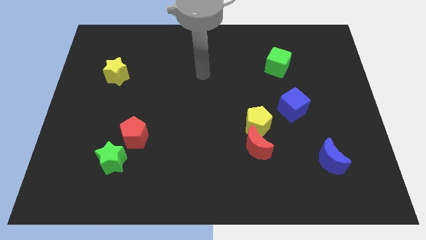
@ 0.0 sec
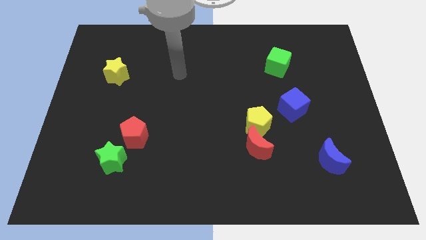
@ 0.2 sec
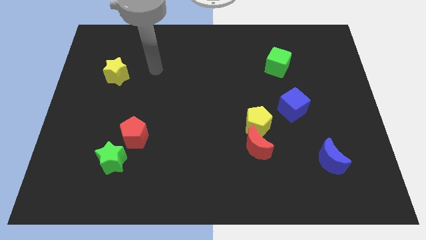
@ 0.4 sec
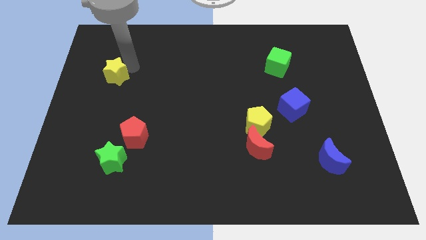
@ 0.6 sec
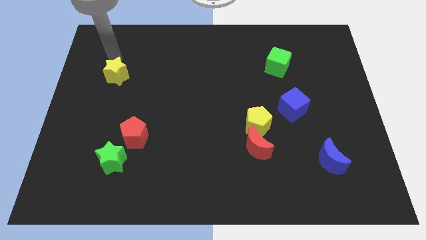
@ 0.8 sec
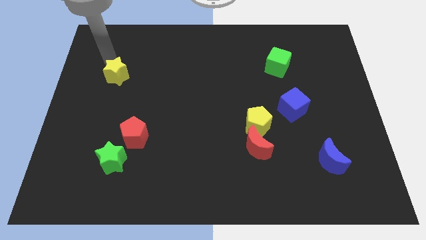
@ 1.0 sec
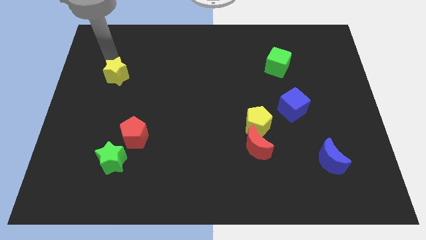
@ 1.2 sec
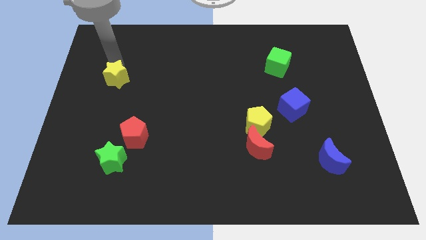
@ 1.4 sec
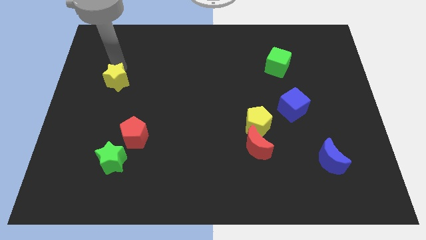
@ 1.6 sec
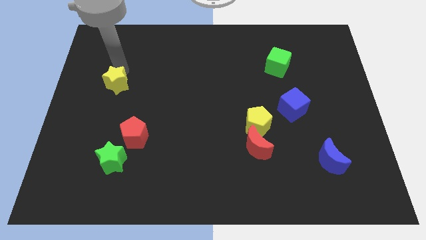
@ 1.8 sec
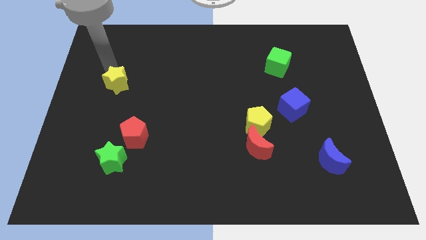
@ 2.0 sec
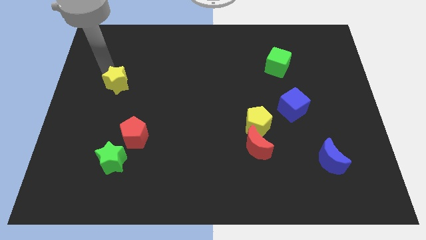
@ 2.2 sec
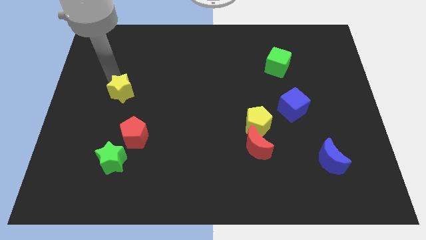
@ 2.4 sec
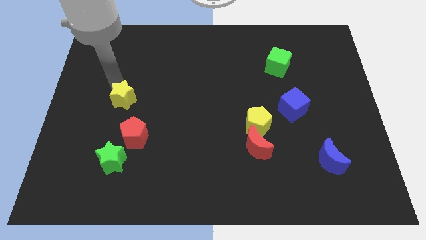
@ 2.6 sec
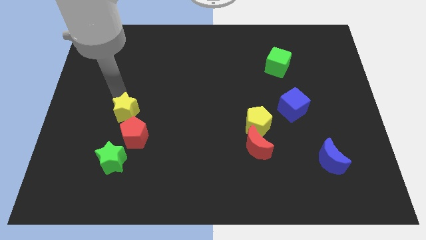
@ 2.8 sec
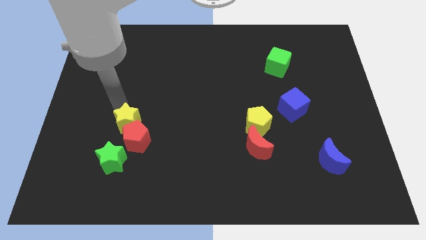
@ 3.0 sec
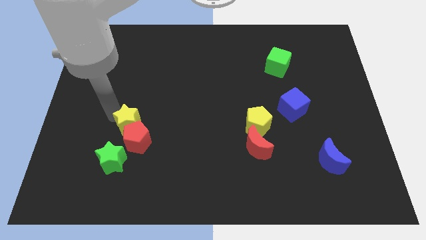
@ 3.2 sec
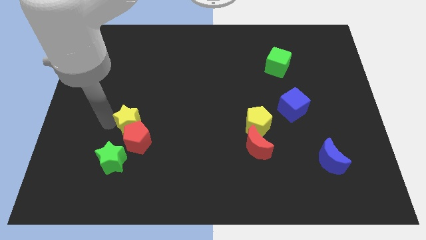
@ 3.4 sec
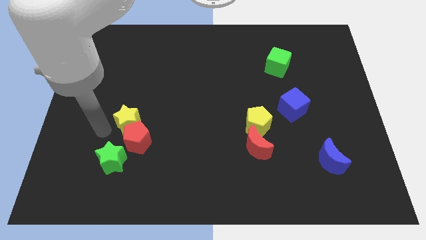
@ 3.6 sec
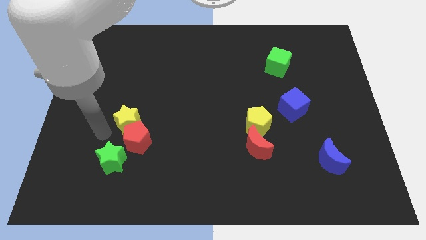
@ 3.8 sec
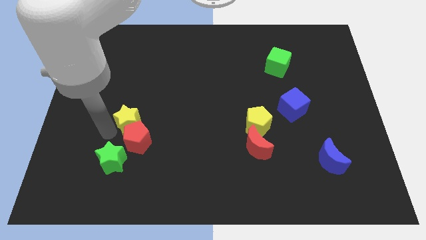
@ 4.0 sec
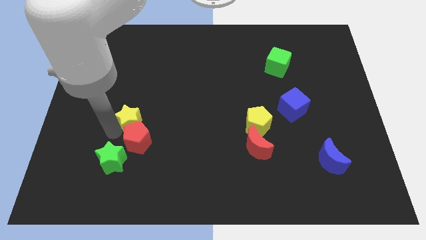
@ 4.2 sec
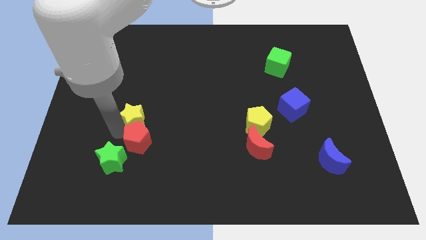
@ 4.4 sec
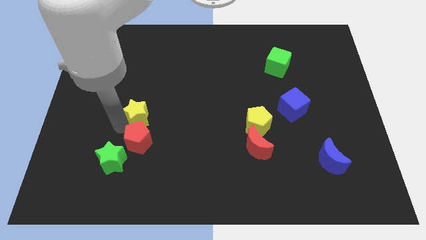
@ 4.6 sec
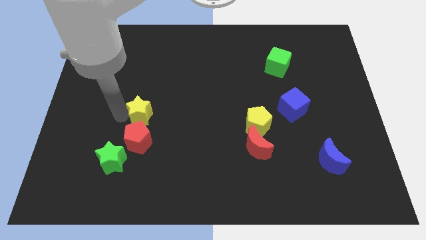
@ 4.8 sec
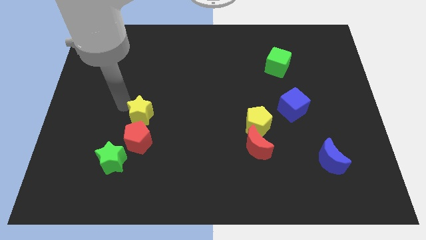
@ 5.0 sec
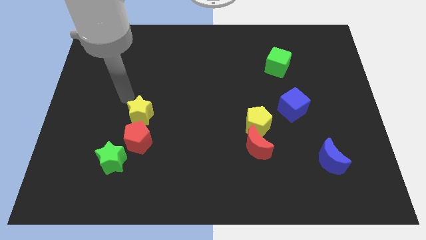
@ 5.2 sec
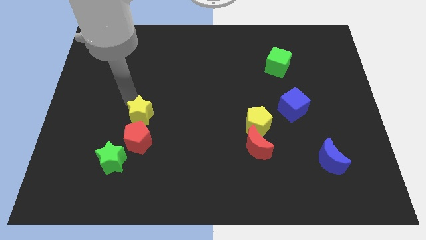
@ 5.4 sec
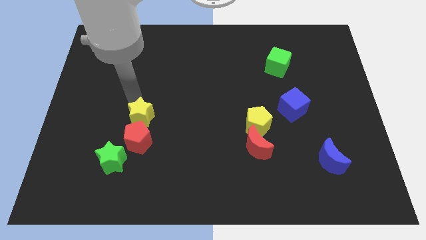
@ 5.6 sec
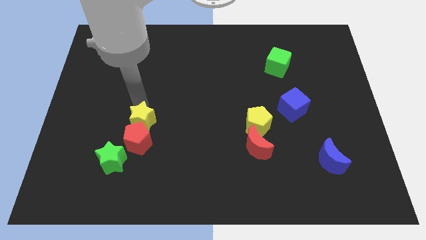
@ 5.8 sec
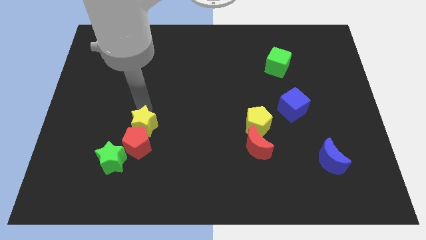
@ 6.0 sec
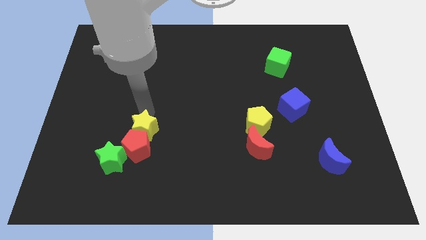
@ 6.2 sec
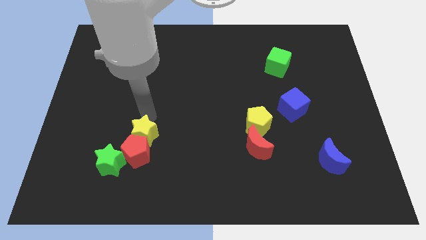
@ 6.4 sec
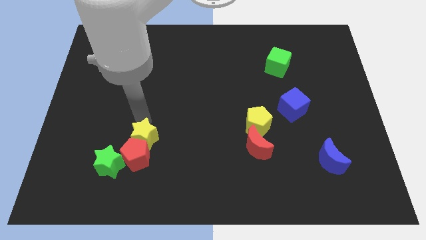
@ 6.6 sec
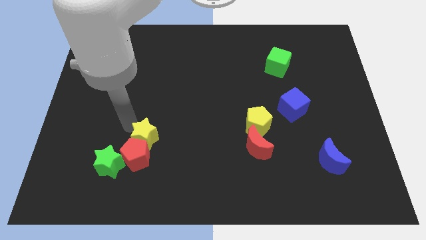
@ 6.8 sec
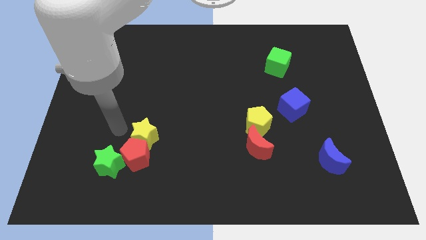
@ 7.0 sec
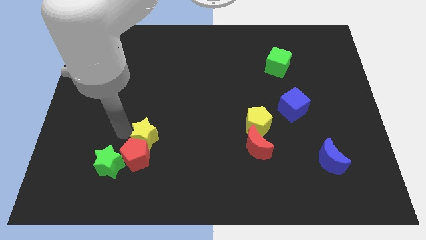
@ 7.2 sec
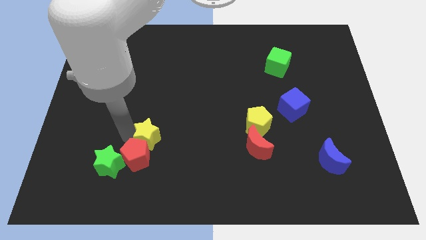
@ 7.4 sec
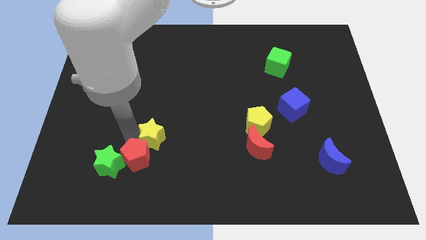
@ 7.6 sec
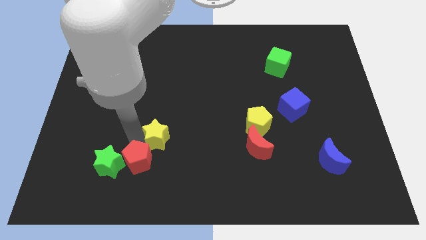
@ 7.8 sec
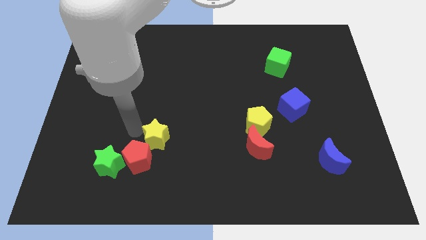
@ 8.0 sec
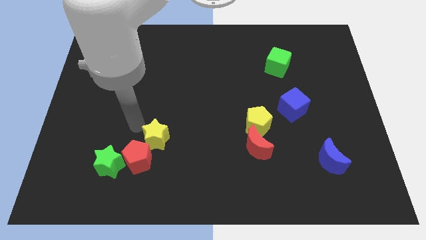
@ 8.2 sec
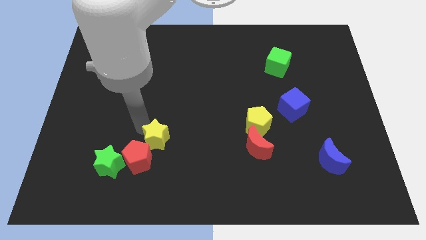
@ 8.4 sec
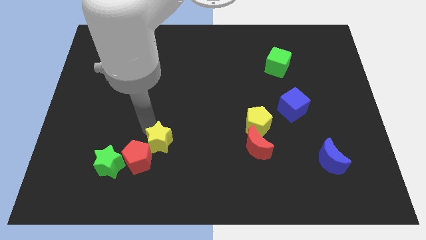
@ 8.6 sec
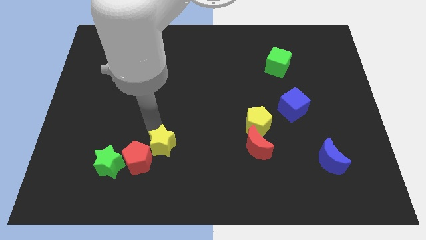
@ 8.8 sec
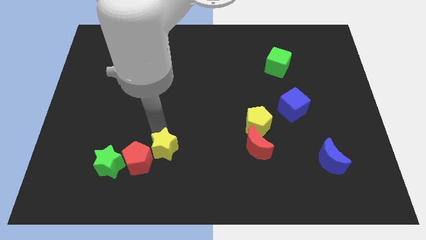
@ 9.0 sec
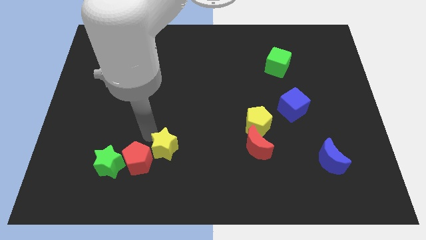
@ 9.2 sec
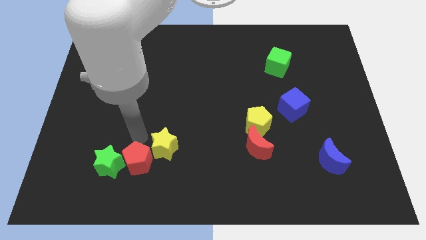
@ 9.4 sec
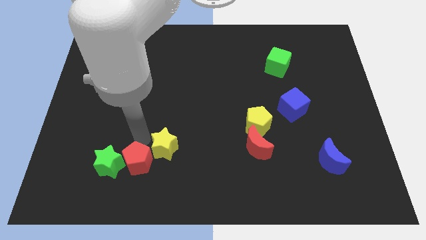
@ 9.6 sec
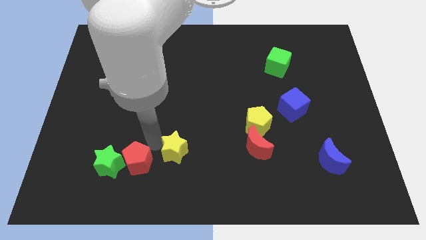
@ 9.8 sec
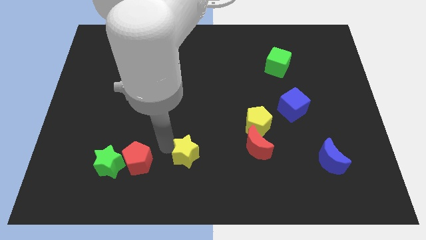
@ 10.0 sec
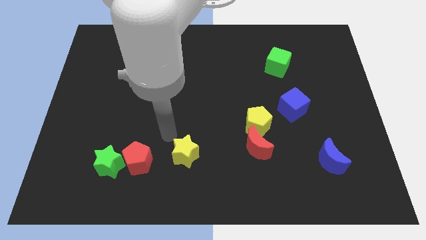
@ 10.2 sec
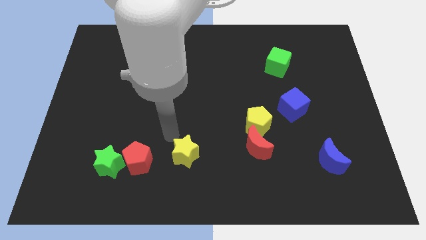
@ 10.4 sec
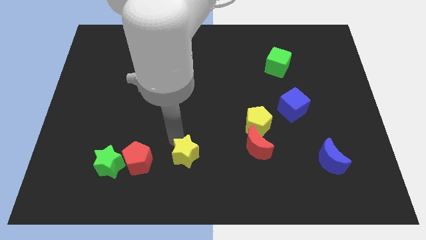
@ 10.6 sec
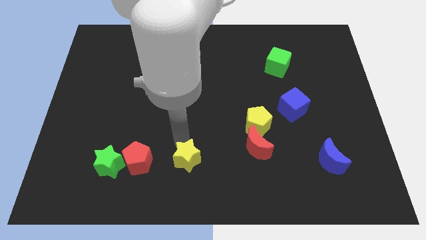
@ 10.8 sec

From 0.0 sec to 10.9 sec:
push the yellow star to the bottom
